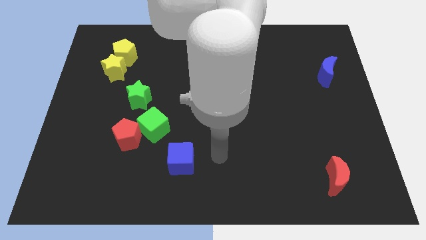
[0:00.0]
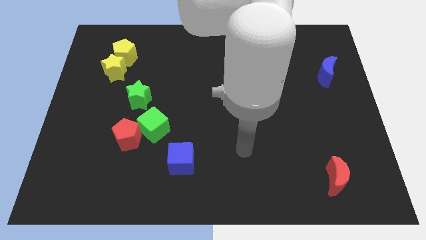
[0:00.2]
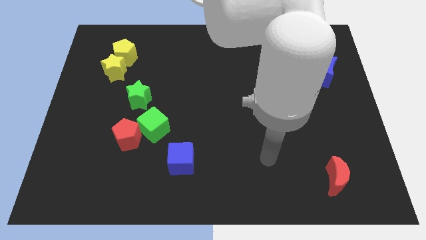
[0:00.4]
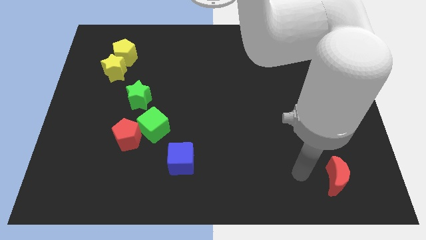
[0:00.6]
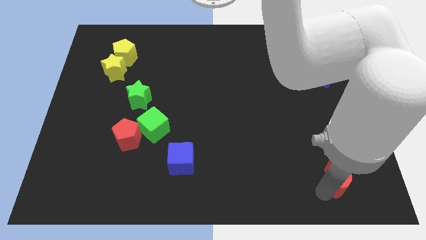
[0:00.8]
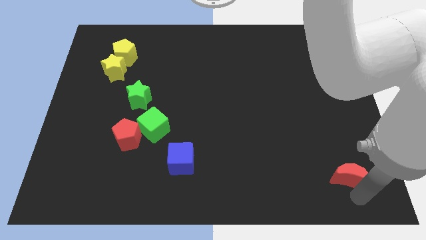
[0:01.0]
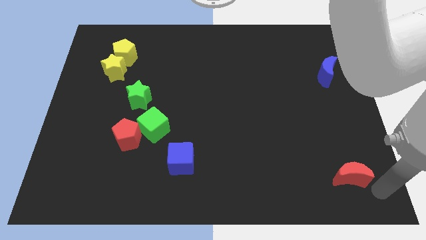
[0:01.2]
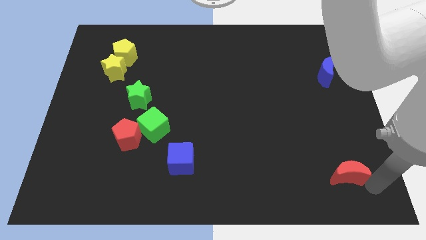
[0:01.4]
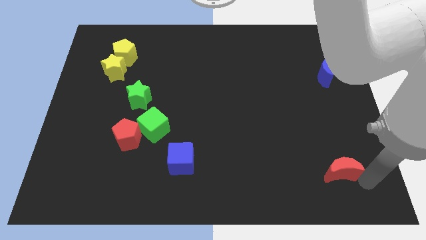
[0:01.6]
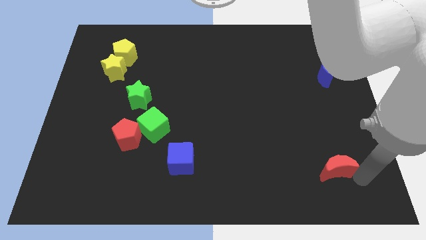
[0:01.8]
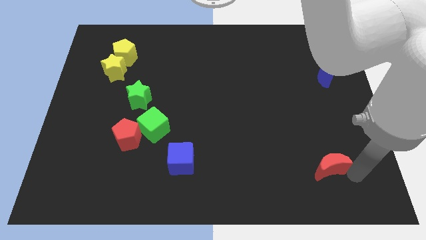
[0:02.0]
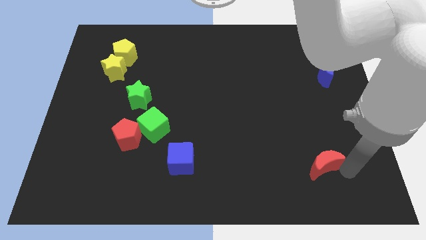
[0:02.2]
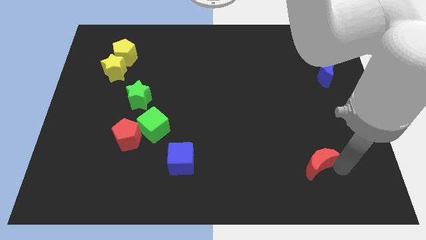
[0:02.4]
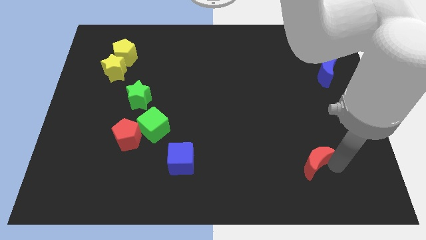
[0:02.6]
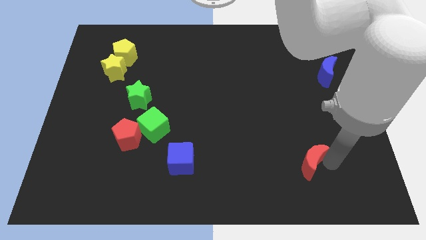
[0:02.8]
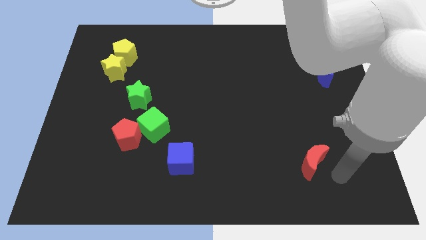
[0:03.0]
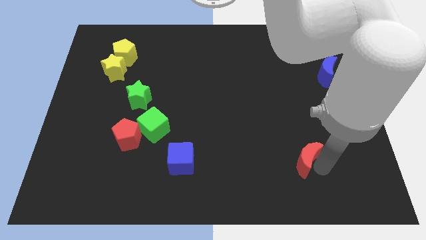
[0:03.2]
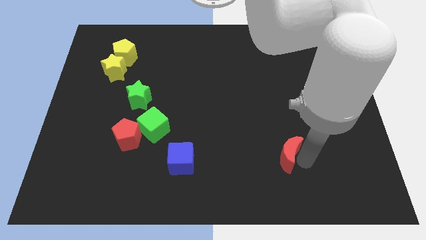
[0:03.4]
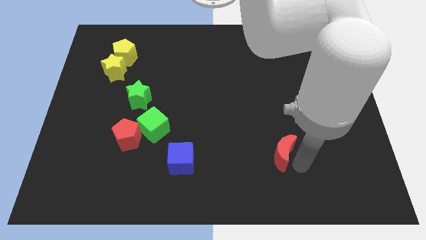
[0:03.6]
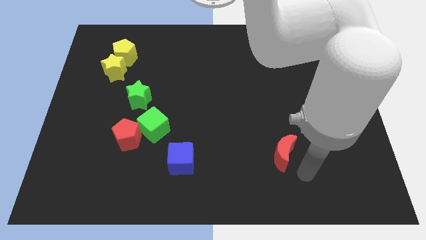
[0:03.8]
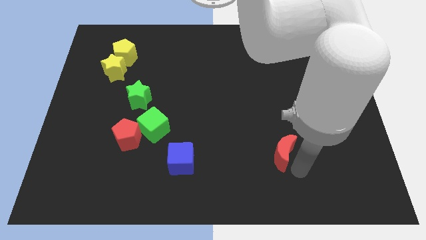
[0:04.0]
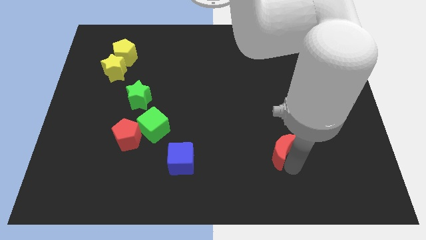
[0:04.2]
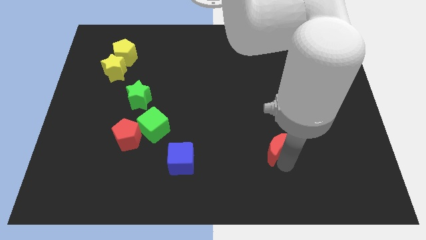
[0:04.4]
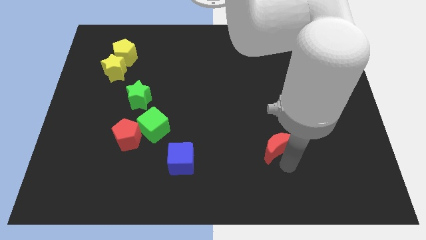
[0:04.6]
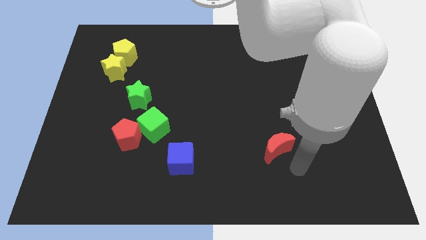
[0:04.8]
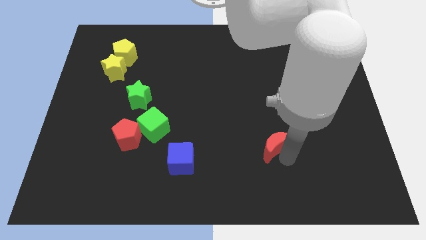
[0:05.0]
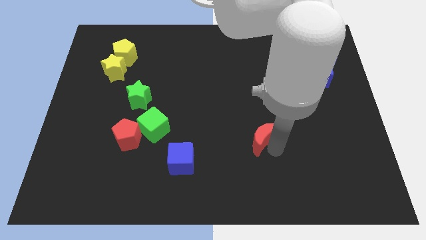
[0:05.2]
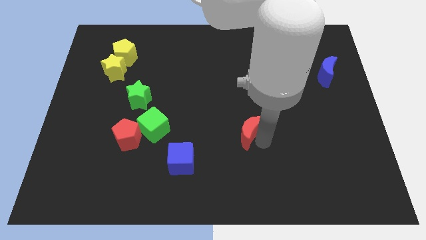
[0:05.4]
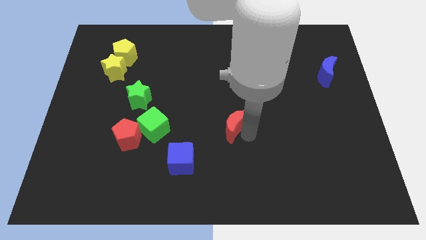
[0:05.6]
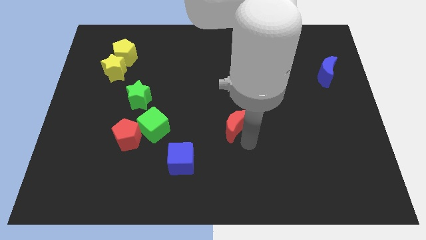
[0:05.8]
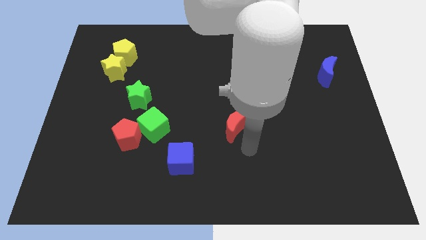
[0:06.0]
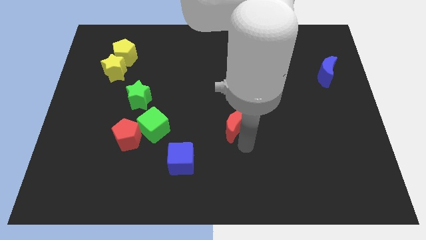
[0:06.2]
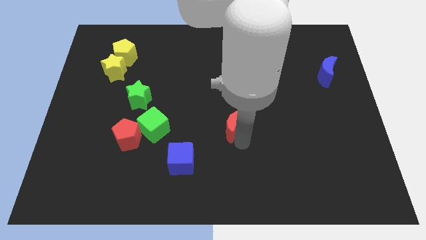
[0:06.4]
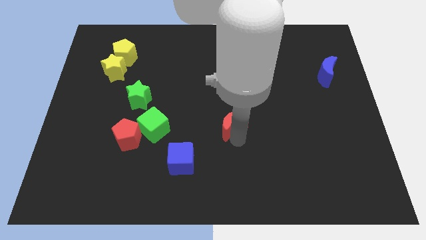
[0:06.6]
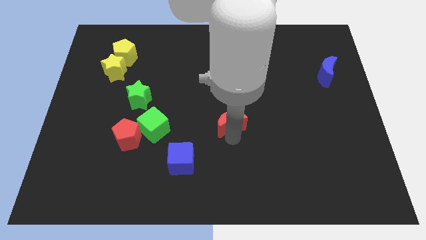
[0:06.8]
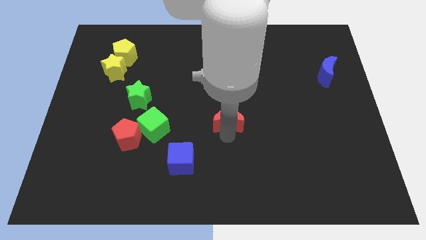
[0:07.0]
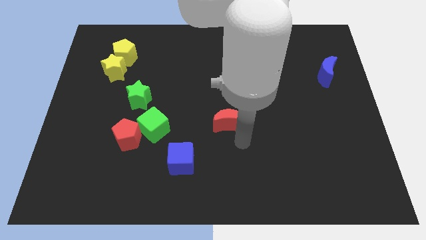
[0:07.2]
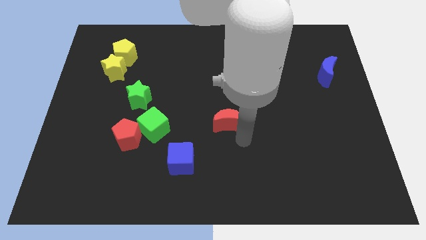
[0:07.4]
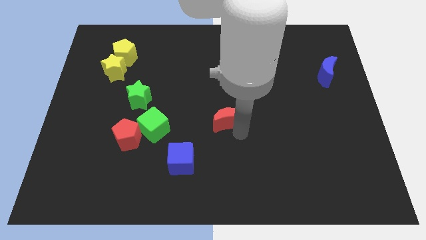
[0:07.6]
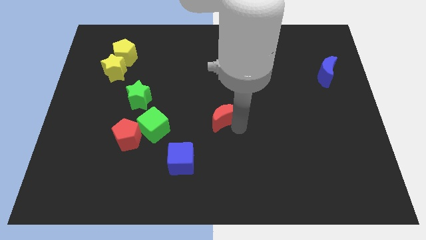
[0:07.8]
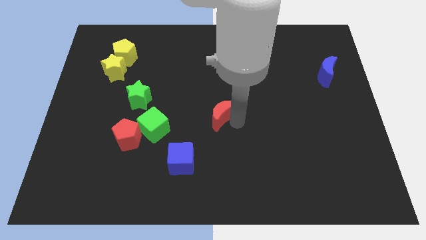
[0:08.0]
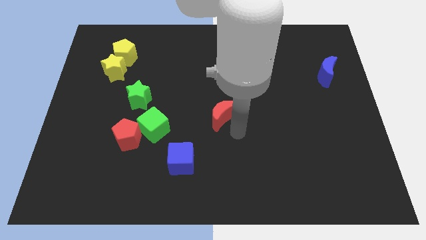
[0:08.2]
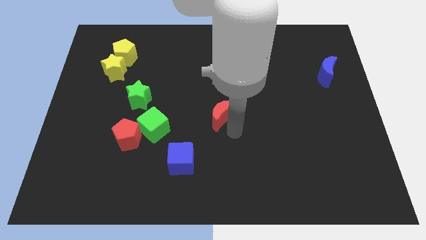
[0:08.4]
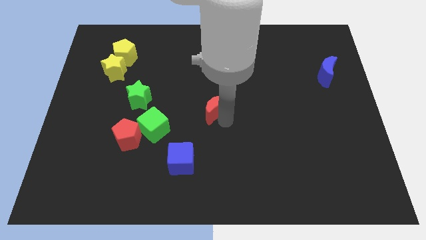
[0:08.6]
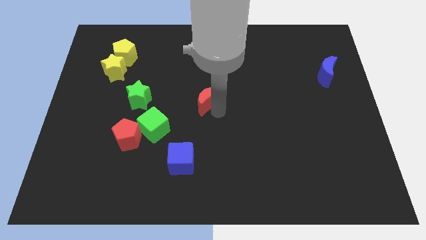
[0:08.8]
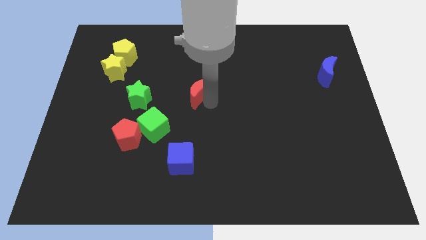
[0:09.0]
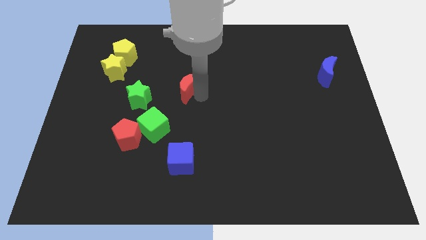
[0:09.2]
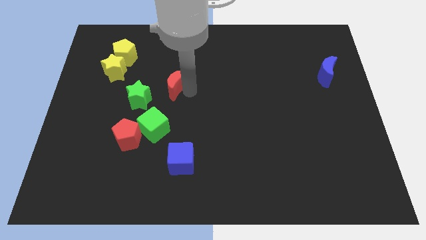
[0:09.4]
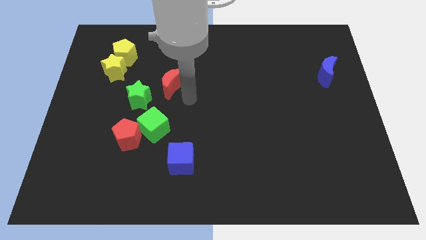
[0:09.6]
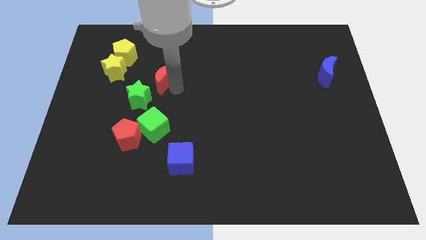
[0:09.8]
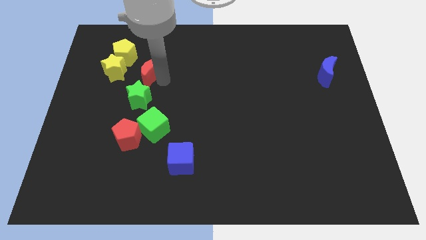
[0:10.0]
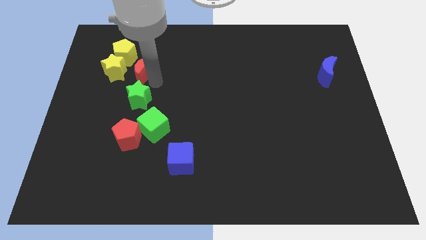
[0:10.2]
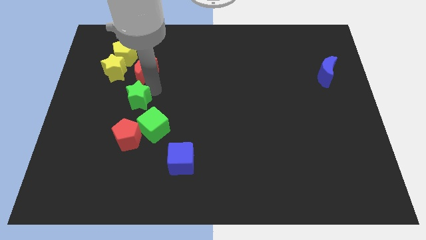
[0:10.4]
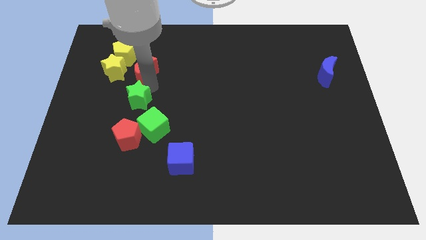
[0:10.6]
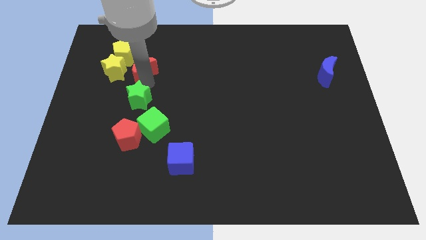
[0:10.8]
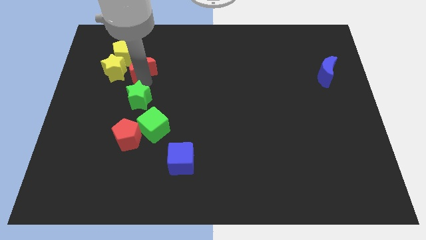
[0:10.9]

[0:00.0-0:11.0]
slide the red moon to the top right side of the yellow star

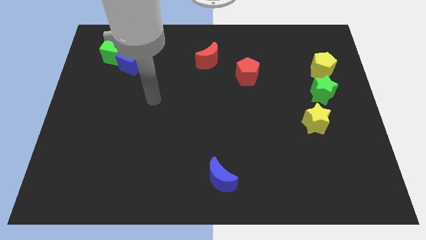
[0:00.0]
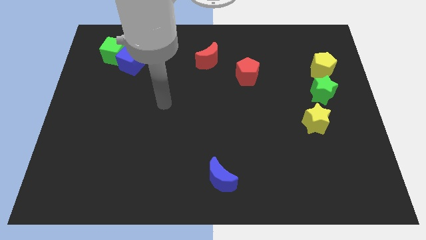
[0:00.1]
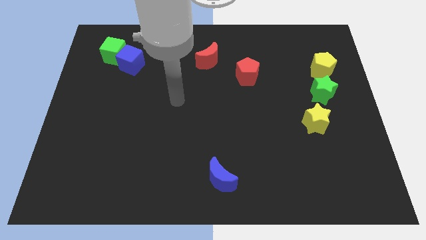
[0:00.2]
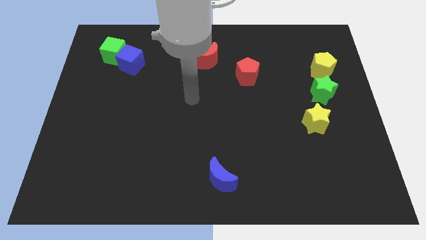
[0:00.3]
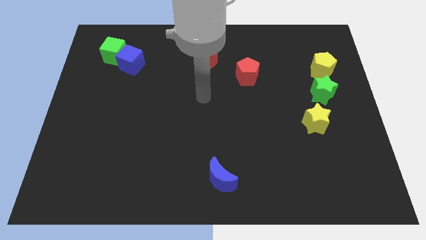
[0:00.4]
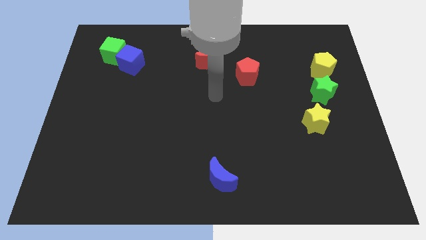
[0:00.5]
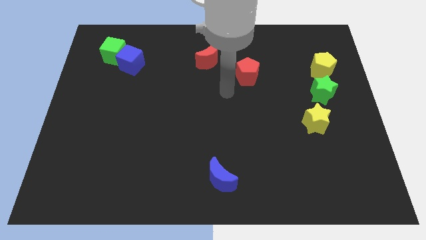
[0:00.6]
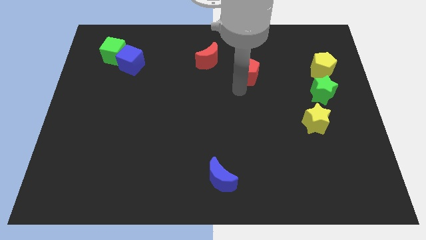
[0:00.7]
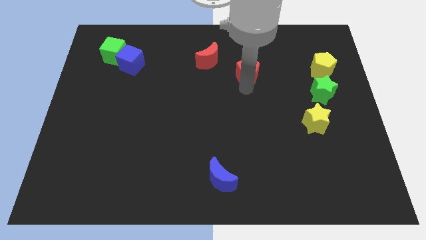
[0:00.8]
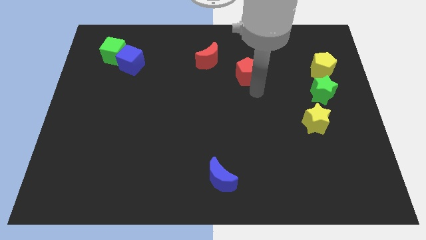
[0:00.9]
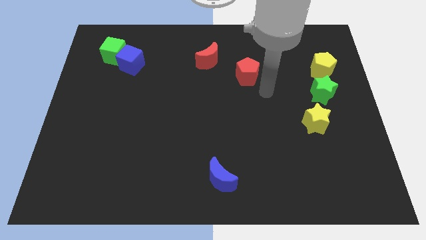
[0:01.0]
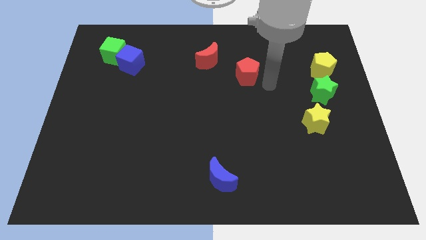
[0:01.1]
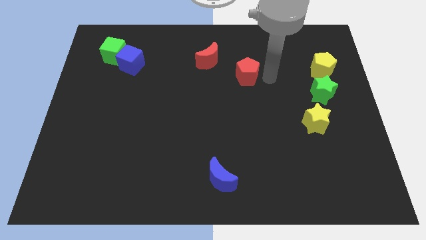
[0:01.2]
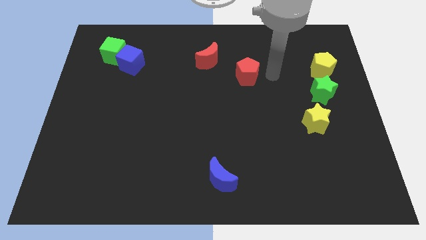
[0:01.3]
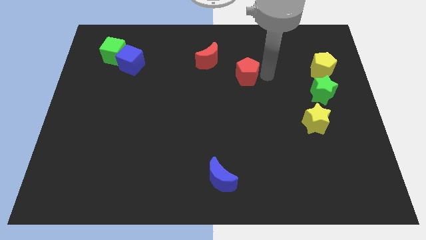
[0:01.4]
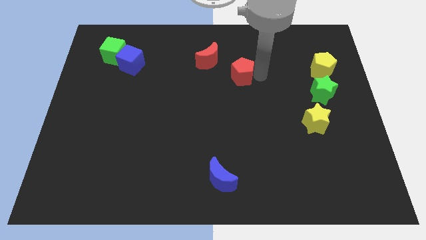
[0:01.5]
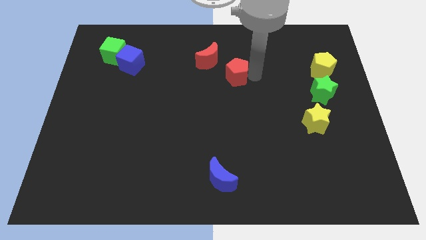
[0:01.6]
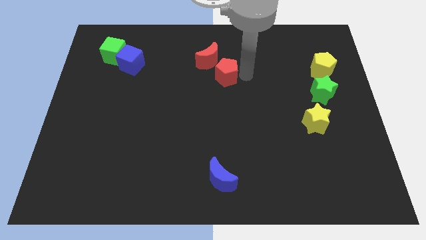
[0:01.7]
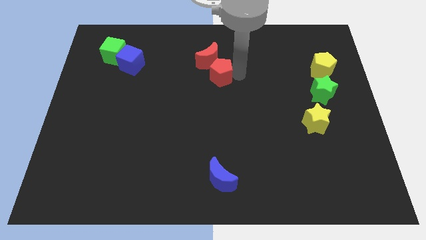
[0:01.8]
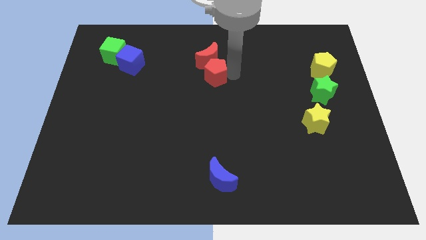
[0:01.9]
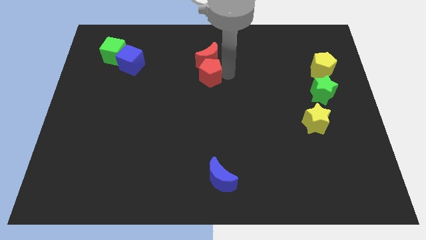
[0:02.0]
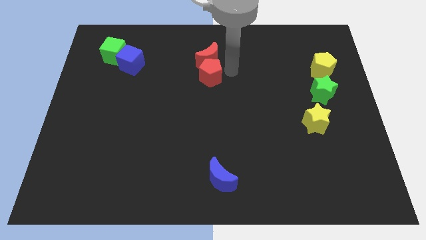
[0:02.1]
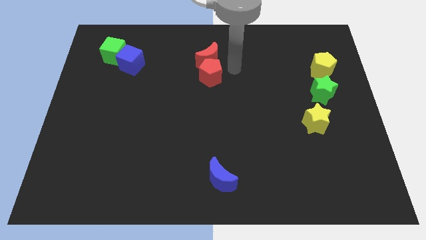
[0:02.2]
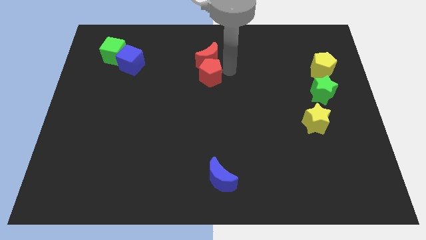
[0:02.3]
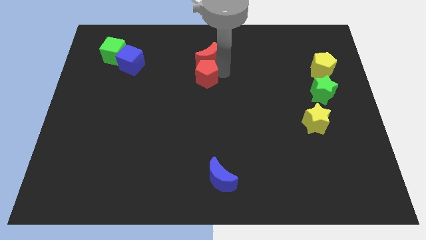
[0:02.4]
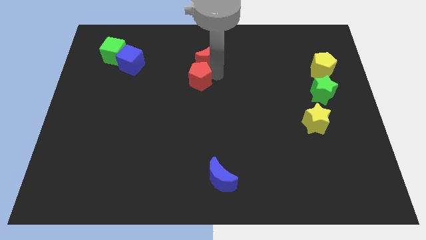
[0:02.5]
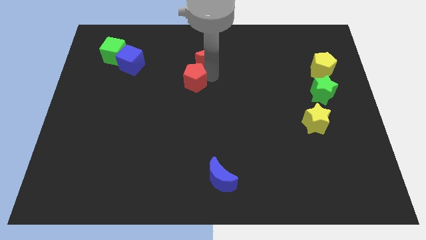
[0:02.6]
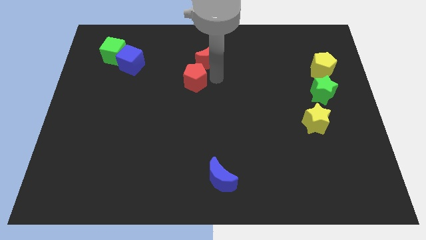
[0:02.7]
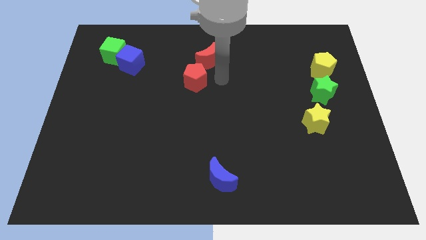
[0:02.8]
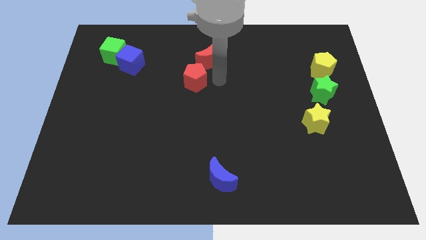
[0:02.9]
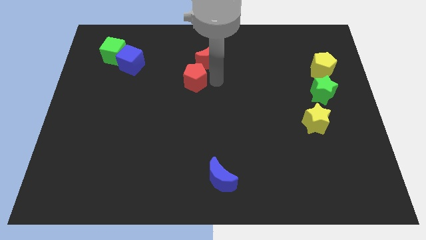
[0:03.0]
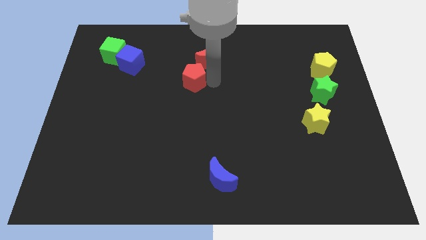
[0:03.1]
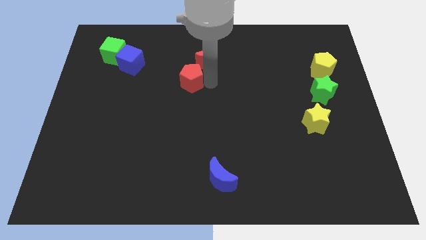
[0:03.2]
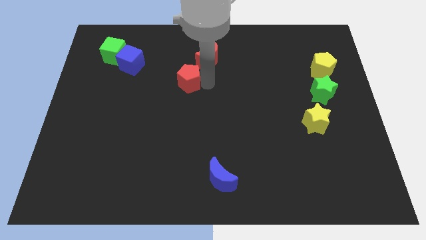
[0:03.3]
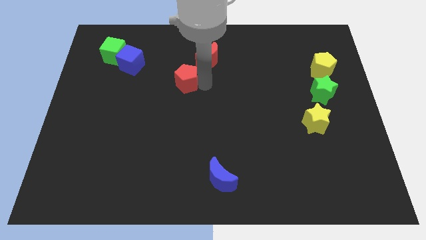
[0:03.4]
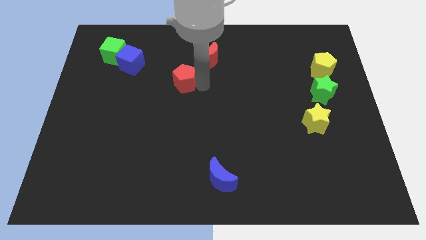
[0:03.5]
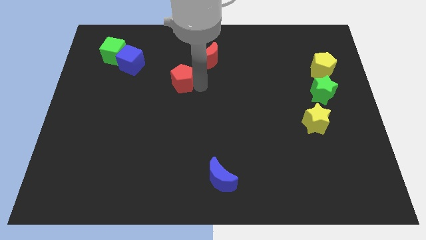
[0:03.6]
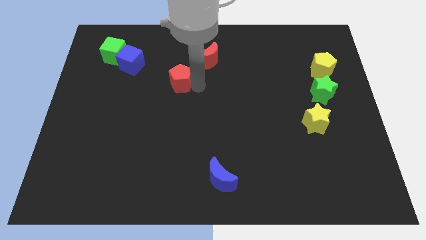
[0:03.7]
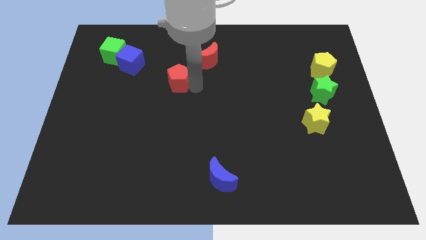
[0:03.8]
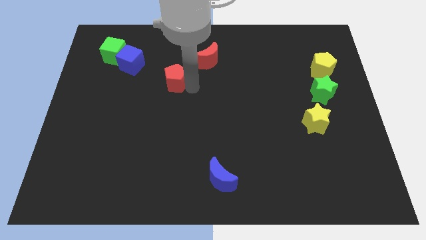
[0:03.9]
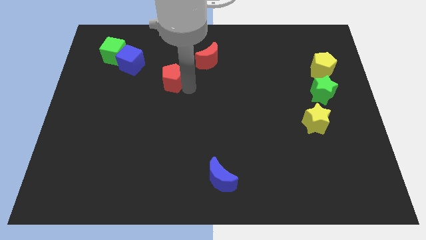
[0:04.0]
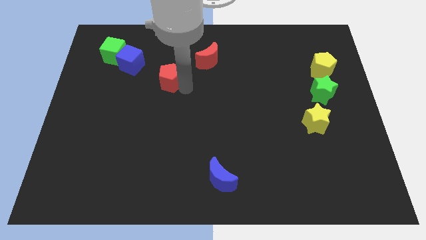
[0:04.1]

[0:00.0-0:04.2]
put the red pentagon to the bottom right of the blue cube
